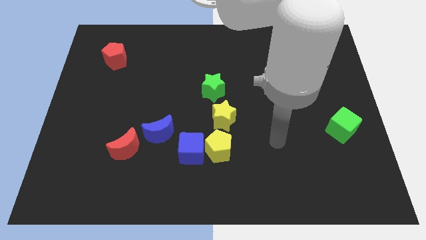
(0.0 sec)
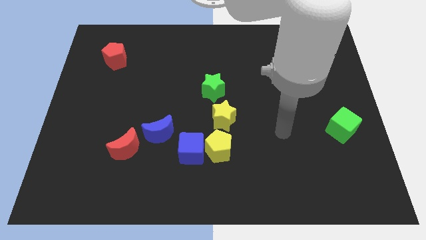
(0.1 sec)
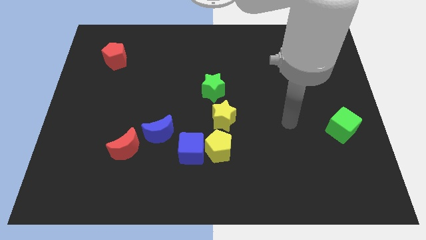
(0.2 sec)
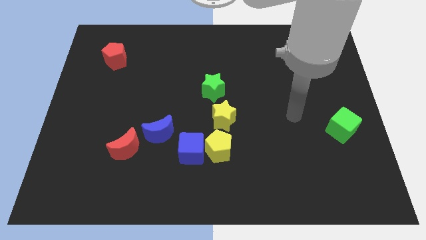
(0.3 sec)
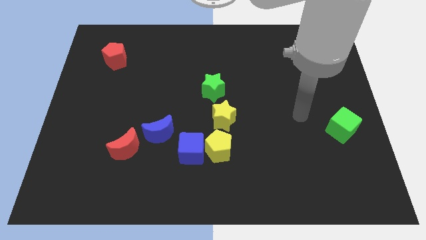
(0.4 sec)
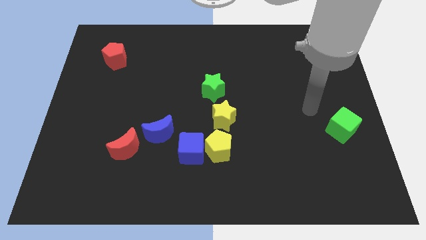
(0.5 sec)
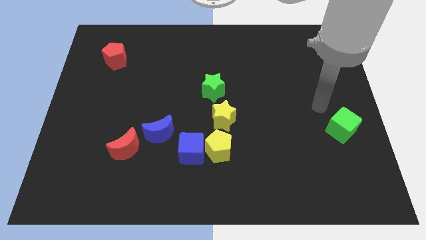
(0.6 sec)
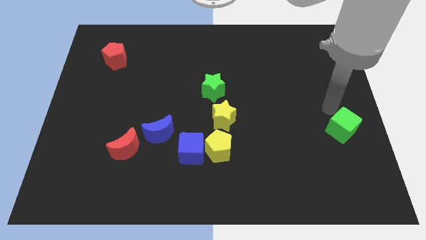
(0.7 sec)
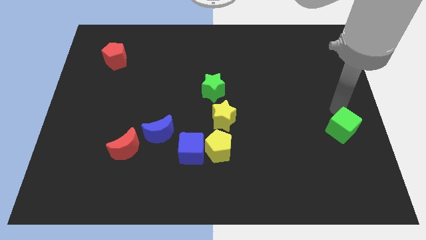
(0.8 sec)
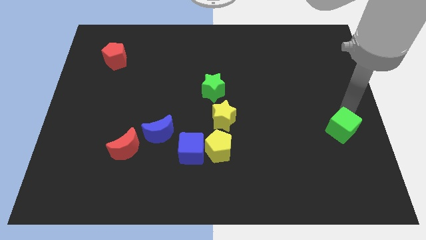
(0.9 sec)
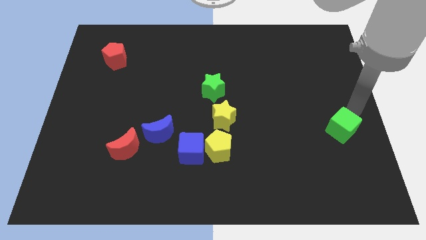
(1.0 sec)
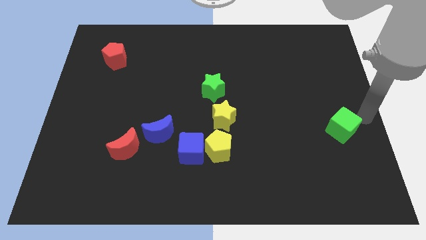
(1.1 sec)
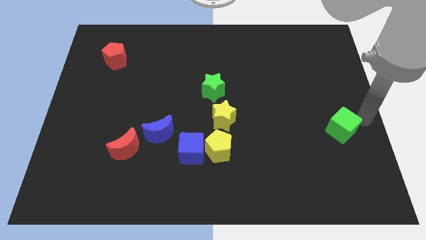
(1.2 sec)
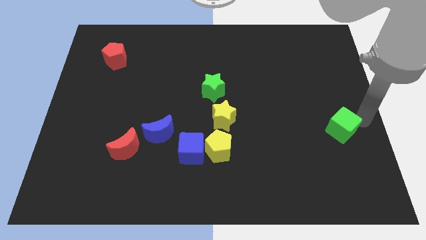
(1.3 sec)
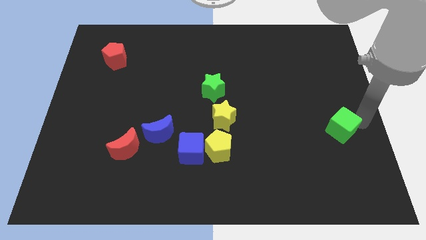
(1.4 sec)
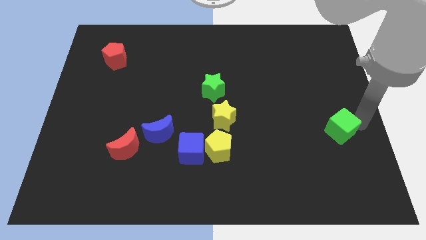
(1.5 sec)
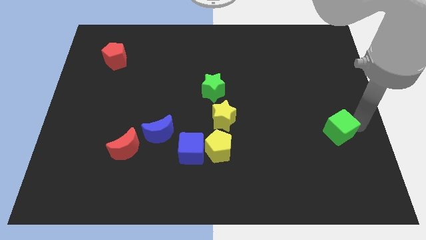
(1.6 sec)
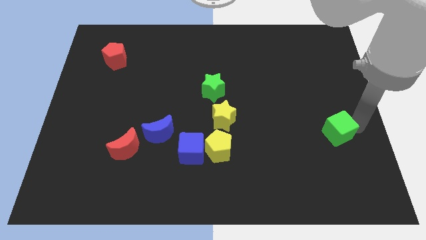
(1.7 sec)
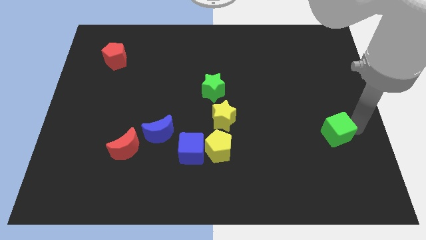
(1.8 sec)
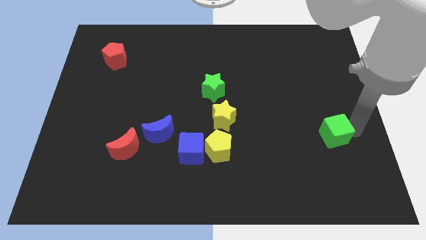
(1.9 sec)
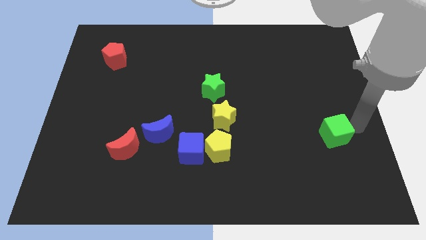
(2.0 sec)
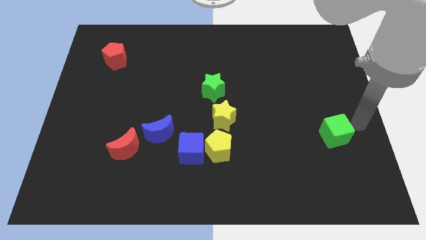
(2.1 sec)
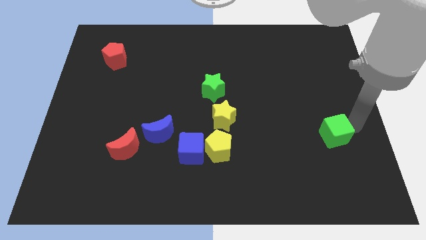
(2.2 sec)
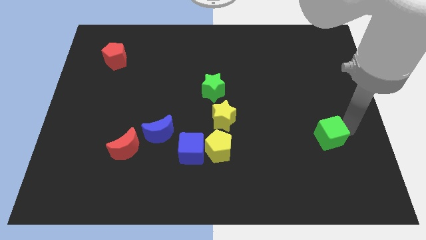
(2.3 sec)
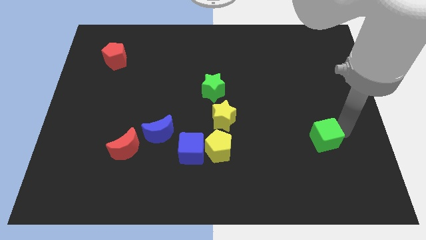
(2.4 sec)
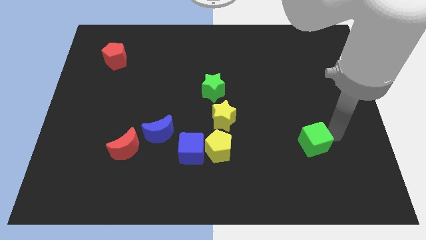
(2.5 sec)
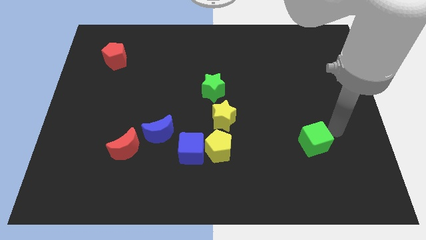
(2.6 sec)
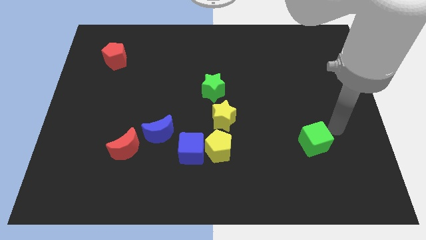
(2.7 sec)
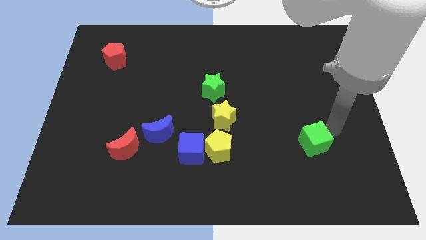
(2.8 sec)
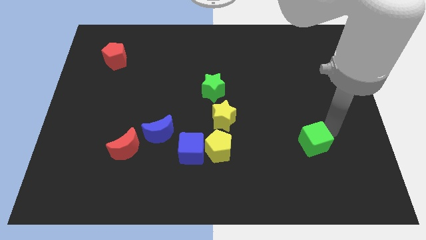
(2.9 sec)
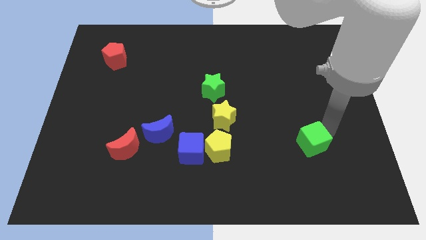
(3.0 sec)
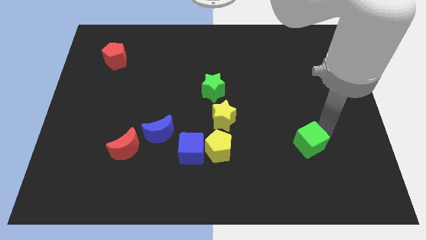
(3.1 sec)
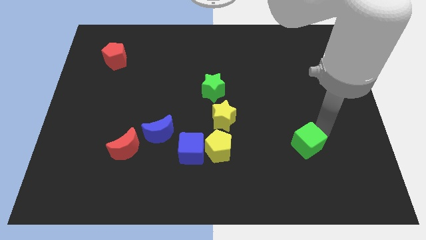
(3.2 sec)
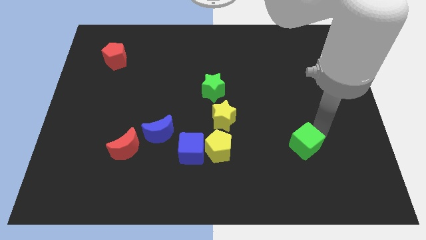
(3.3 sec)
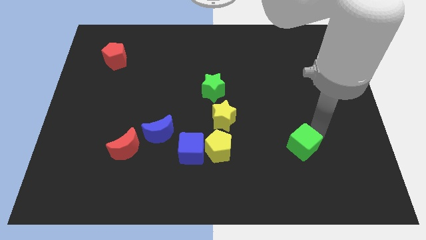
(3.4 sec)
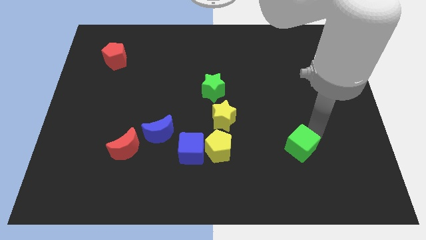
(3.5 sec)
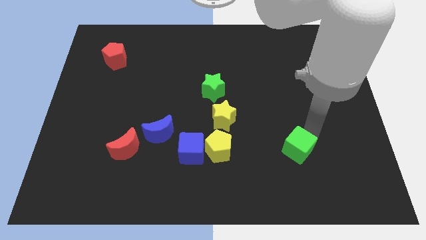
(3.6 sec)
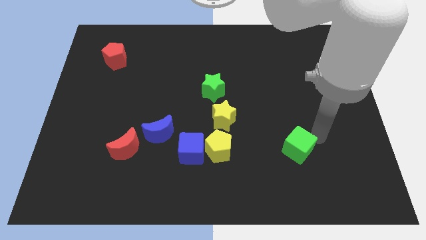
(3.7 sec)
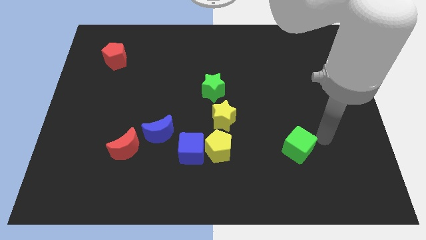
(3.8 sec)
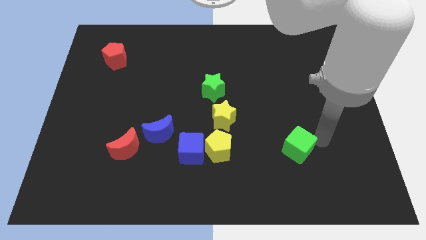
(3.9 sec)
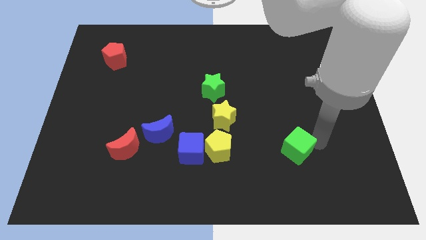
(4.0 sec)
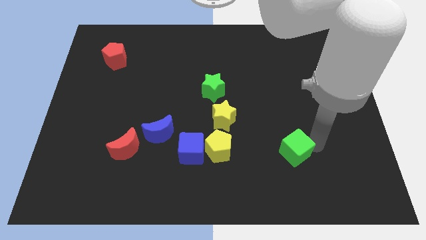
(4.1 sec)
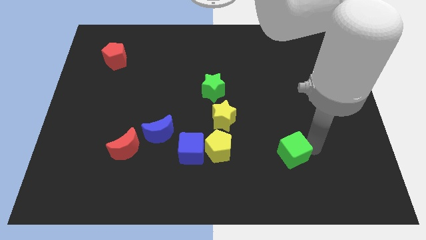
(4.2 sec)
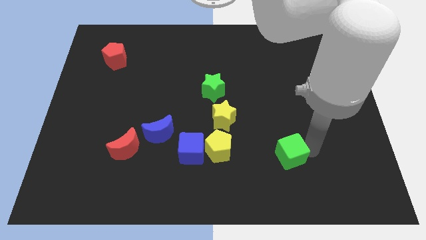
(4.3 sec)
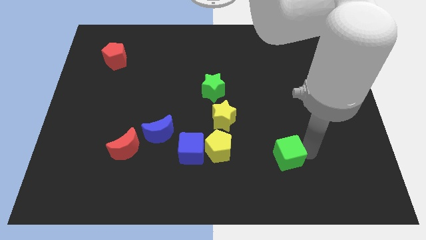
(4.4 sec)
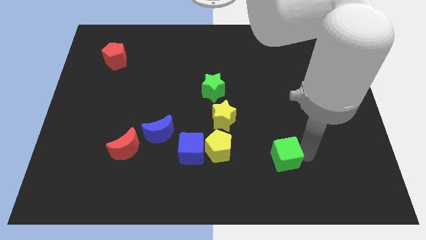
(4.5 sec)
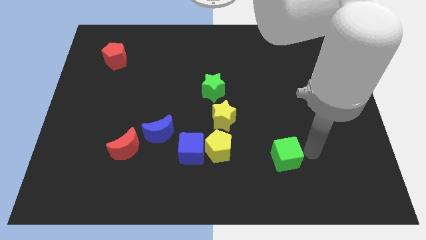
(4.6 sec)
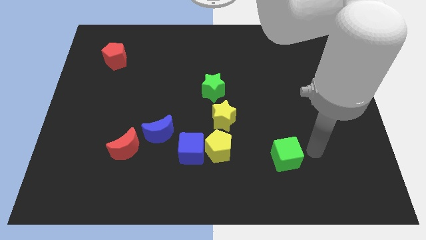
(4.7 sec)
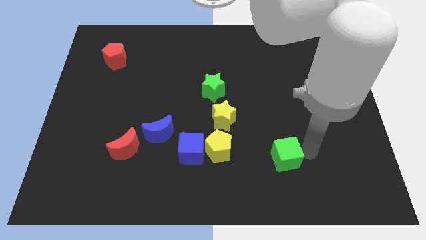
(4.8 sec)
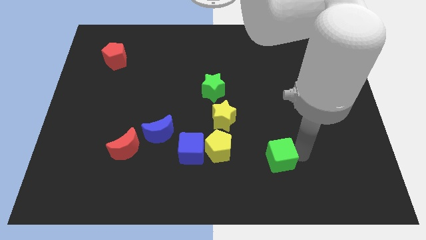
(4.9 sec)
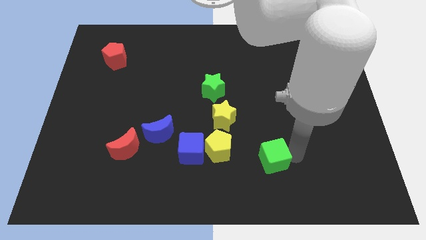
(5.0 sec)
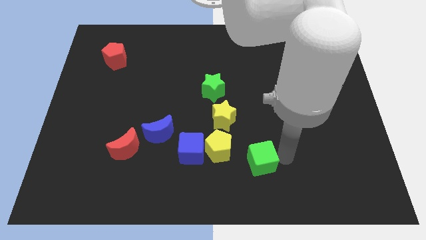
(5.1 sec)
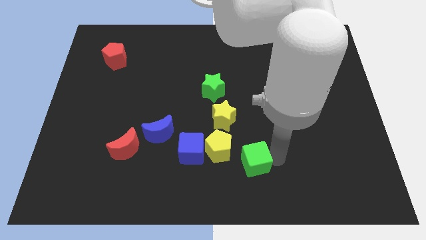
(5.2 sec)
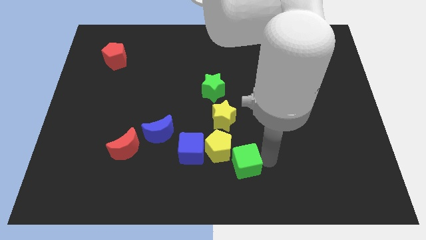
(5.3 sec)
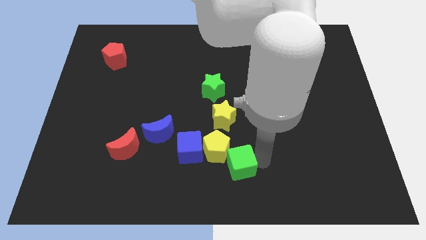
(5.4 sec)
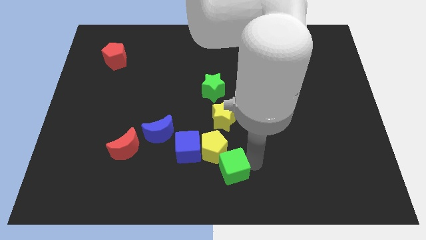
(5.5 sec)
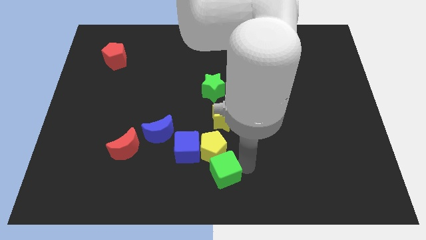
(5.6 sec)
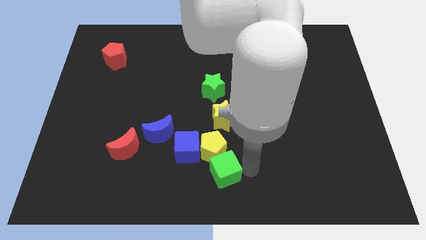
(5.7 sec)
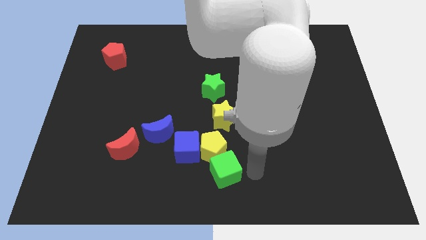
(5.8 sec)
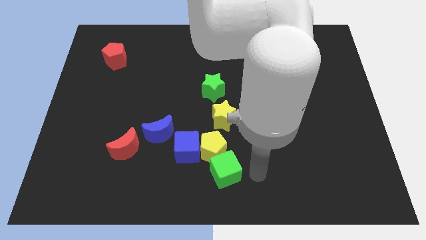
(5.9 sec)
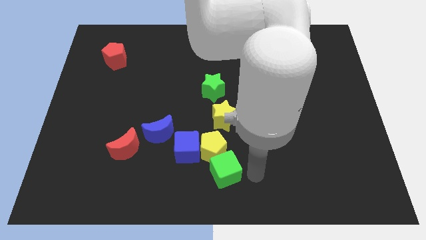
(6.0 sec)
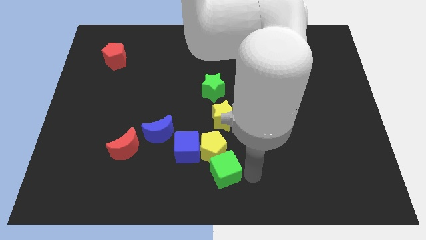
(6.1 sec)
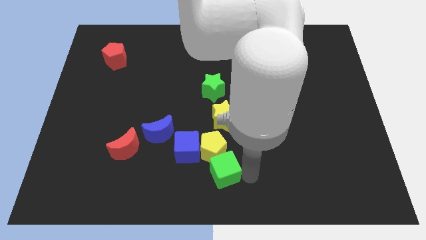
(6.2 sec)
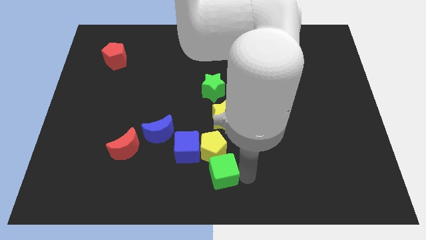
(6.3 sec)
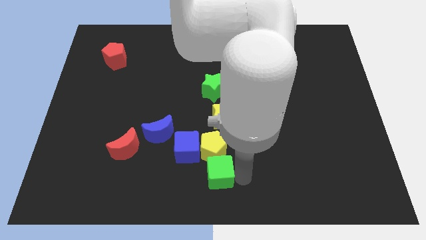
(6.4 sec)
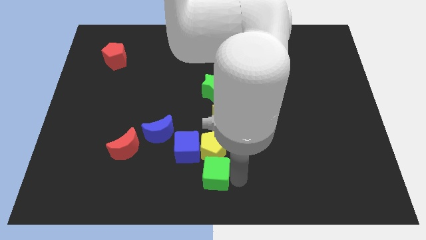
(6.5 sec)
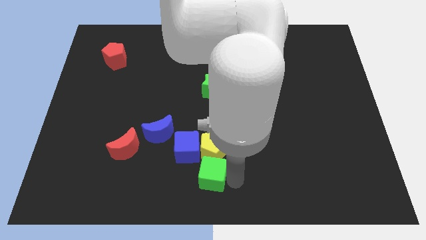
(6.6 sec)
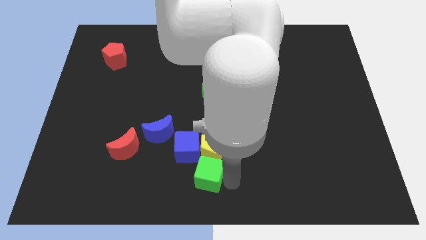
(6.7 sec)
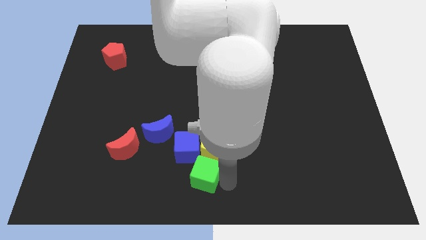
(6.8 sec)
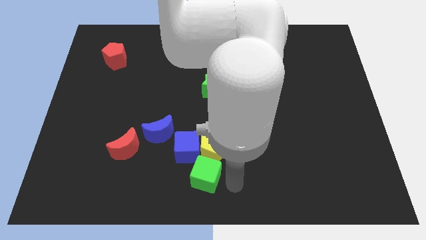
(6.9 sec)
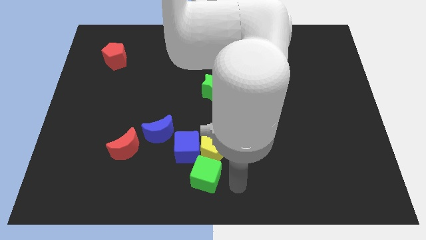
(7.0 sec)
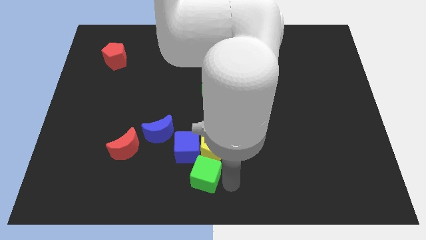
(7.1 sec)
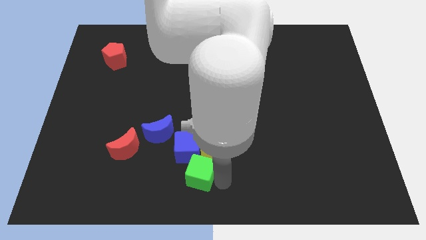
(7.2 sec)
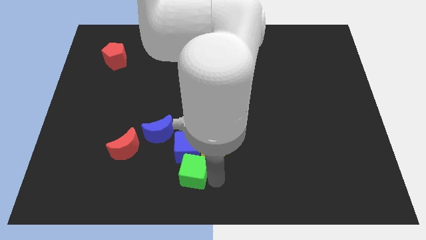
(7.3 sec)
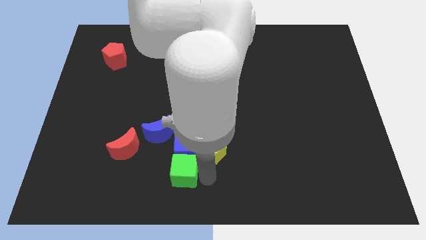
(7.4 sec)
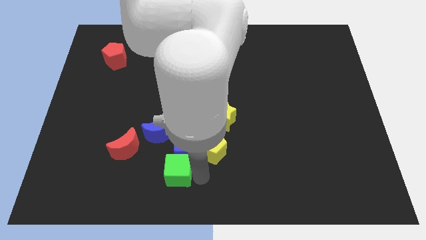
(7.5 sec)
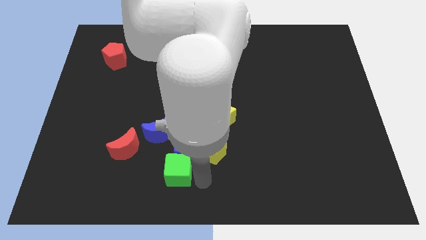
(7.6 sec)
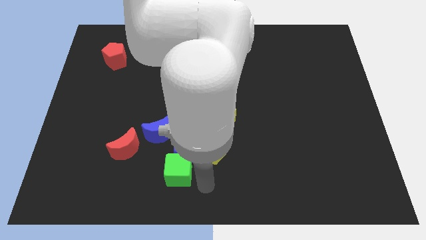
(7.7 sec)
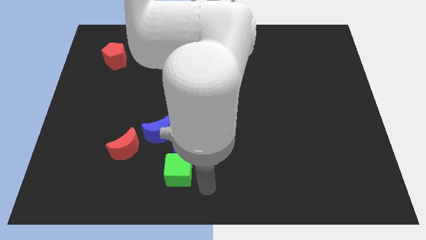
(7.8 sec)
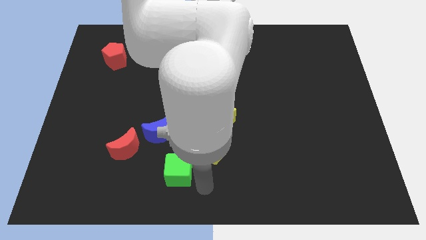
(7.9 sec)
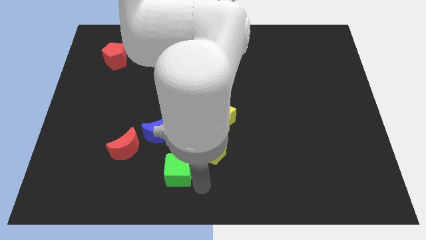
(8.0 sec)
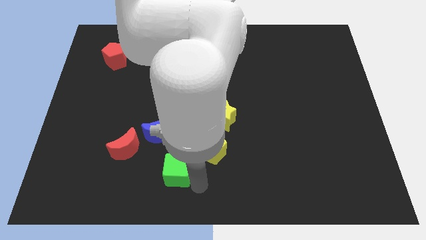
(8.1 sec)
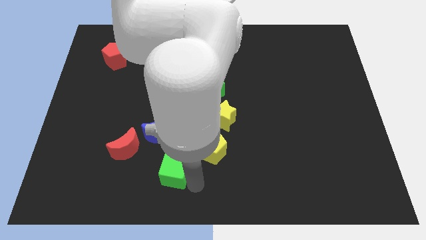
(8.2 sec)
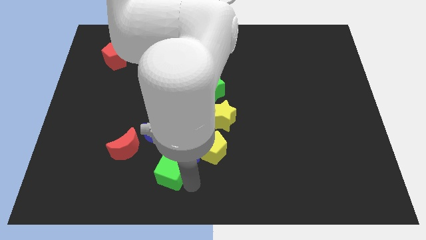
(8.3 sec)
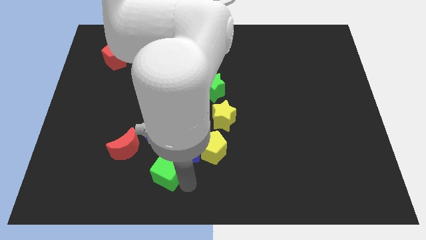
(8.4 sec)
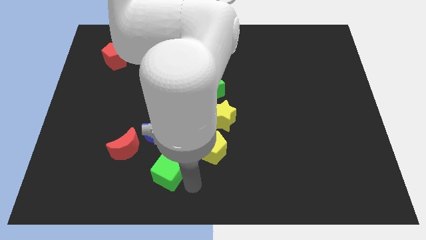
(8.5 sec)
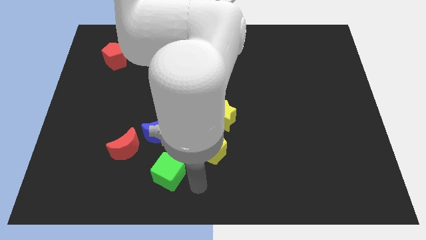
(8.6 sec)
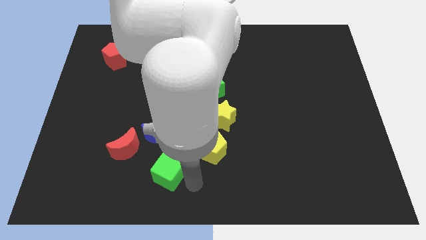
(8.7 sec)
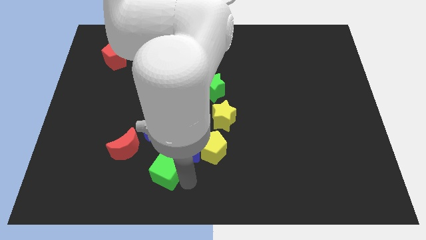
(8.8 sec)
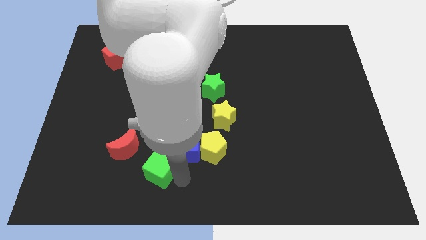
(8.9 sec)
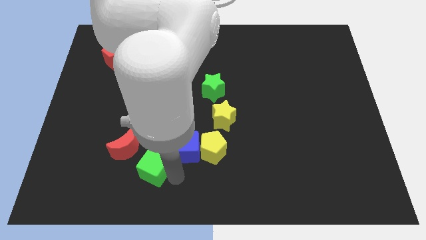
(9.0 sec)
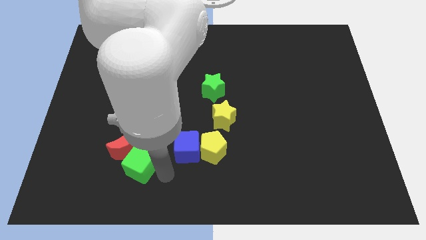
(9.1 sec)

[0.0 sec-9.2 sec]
put the green cube towards the red moon
